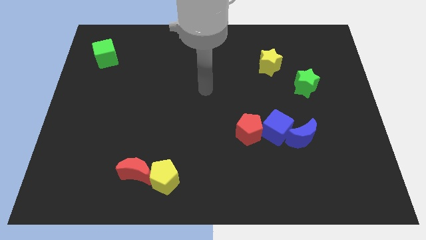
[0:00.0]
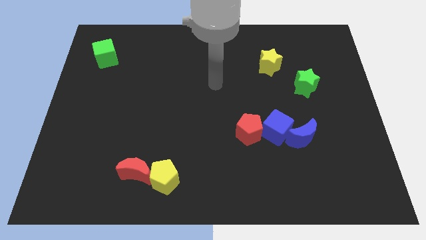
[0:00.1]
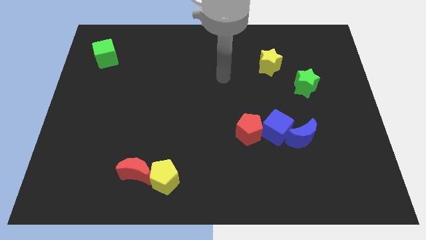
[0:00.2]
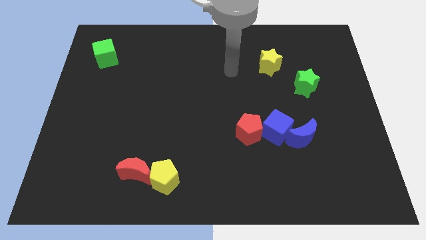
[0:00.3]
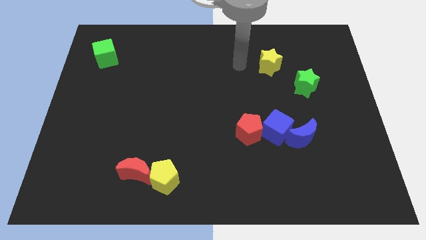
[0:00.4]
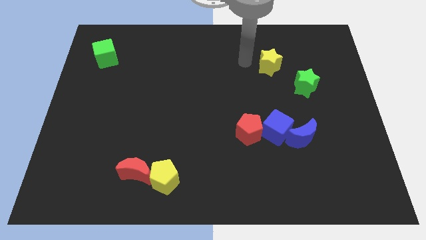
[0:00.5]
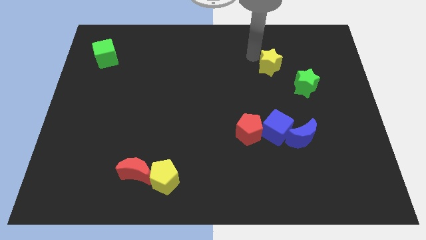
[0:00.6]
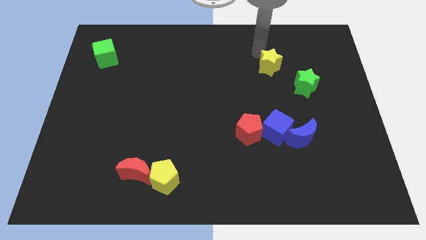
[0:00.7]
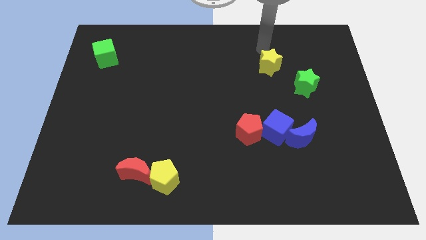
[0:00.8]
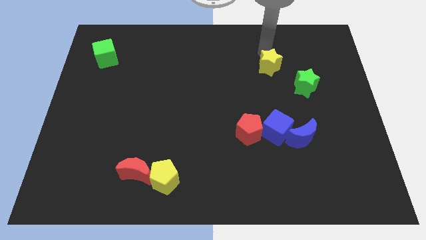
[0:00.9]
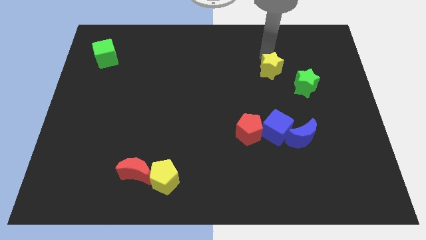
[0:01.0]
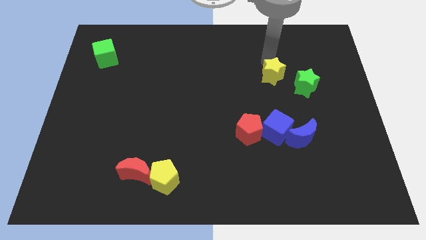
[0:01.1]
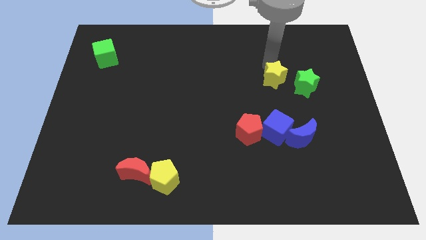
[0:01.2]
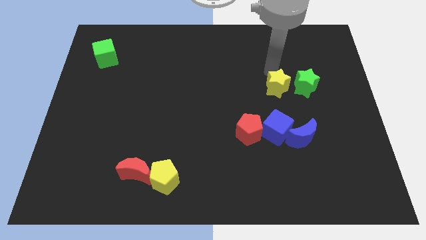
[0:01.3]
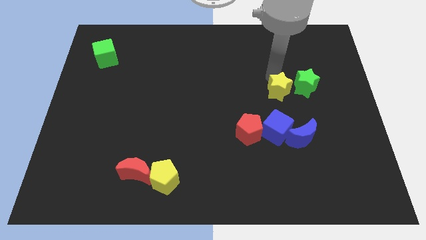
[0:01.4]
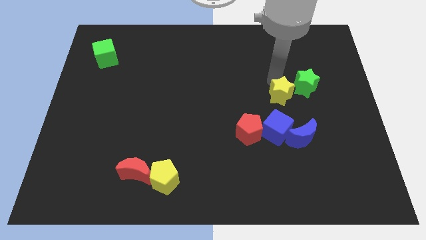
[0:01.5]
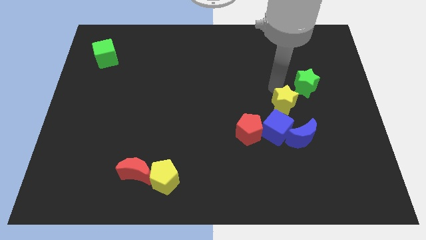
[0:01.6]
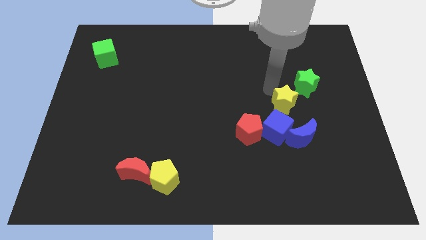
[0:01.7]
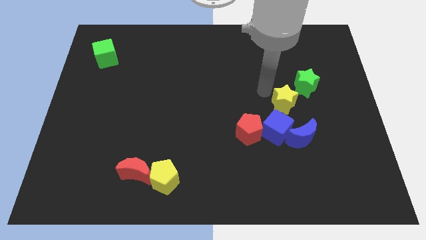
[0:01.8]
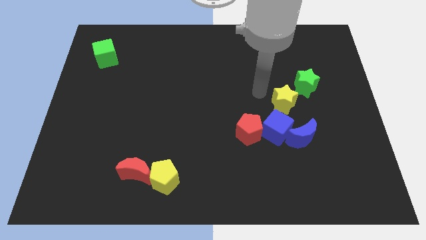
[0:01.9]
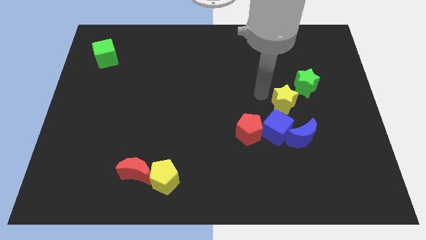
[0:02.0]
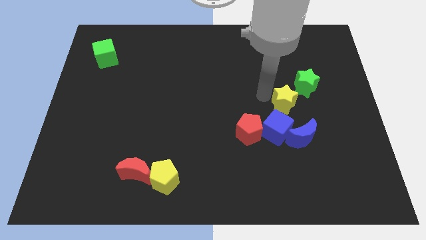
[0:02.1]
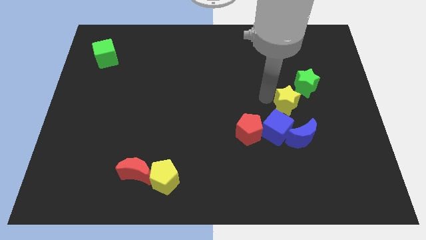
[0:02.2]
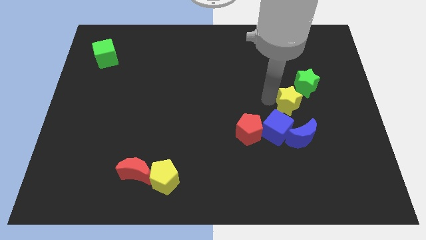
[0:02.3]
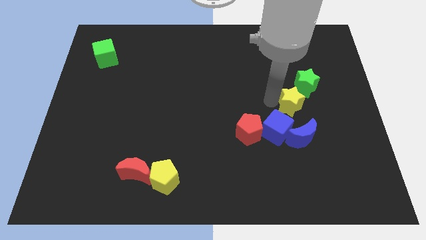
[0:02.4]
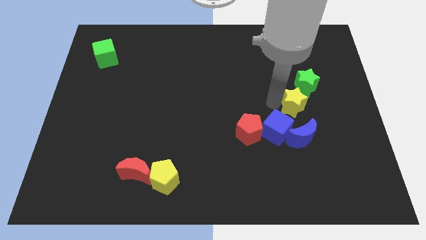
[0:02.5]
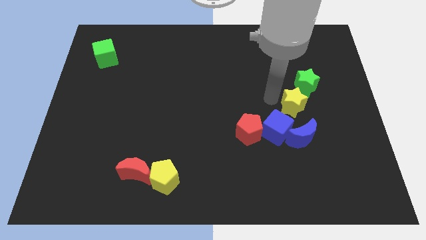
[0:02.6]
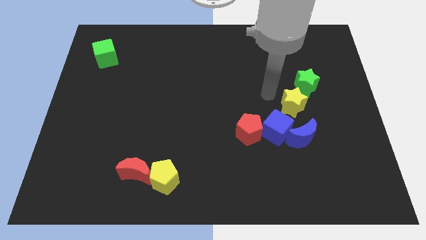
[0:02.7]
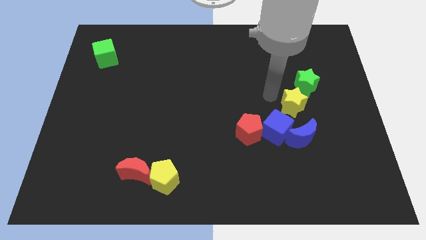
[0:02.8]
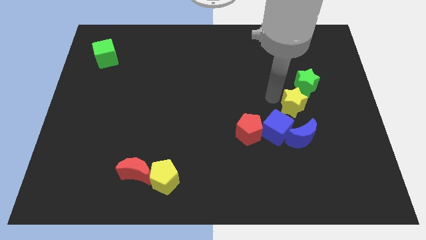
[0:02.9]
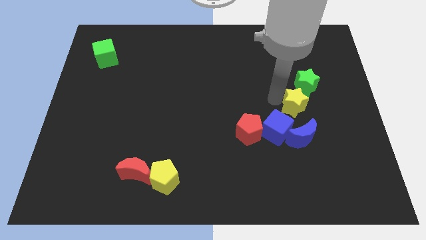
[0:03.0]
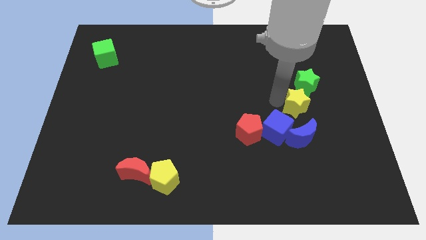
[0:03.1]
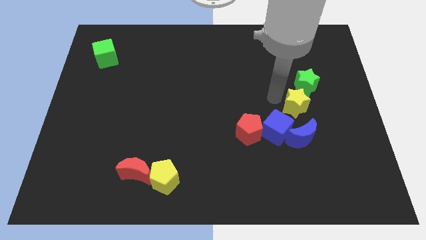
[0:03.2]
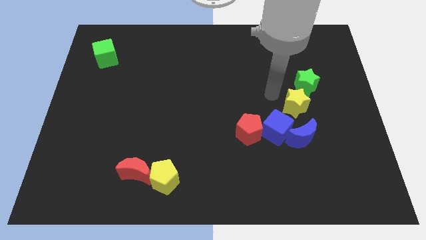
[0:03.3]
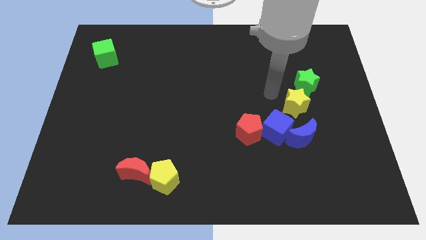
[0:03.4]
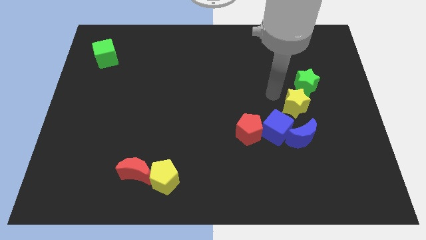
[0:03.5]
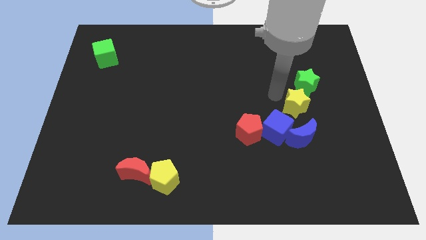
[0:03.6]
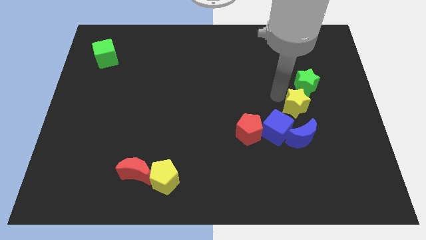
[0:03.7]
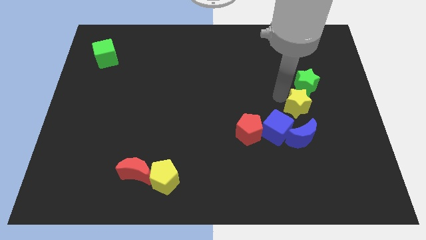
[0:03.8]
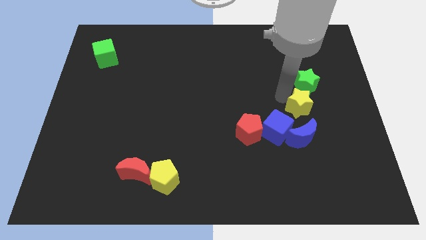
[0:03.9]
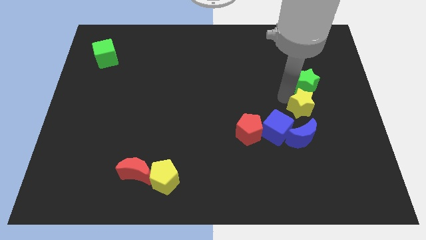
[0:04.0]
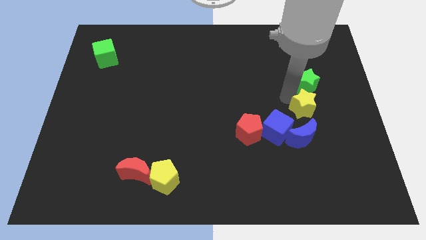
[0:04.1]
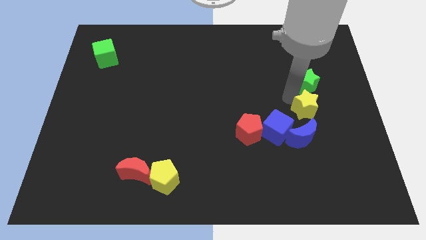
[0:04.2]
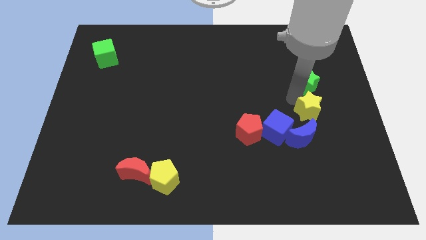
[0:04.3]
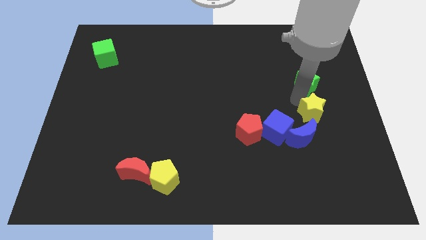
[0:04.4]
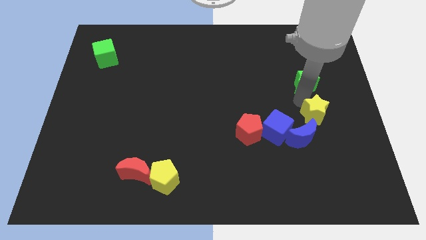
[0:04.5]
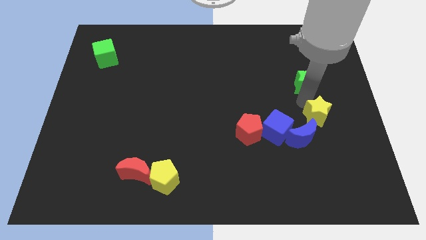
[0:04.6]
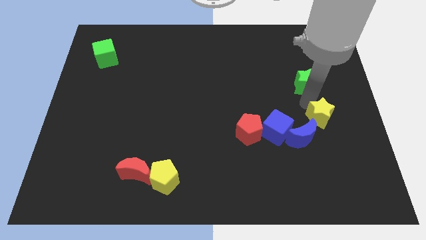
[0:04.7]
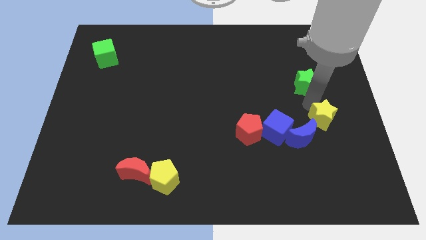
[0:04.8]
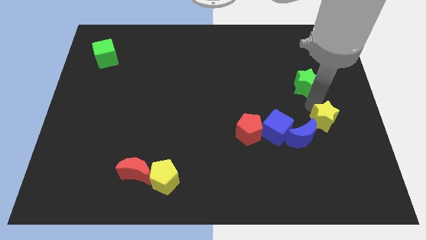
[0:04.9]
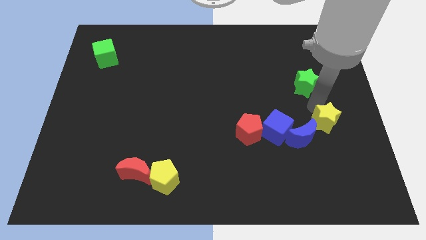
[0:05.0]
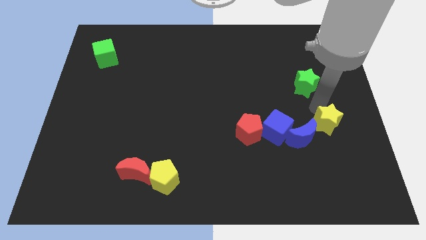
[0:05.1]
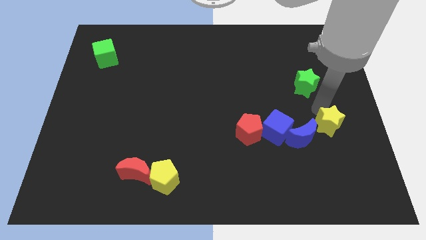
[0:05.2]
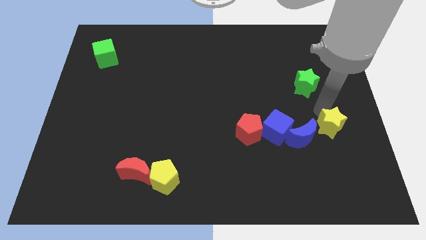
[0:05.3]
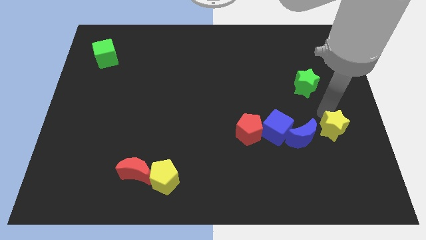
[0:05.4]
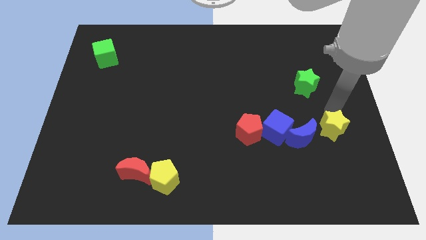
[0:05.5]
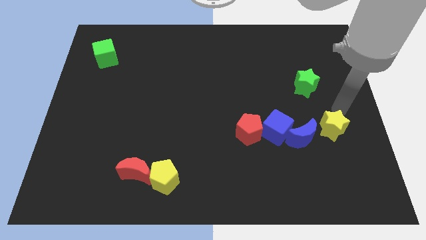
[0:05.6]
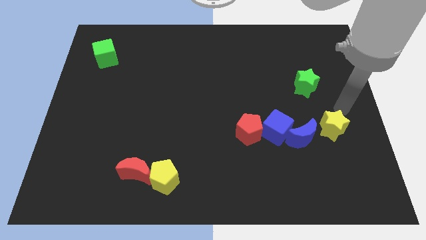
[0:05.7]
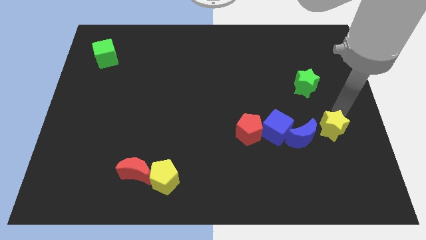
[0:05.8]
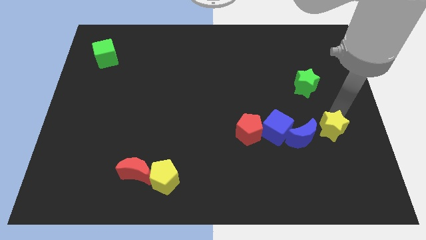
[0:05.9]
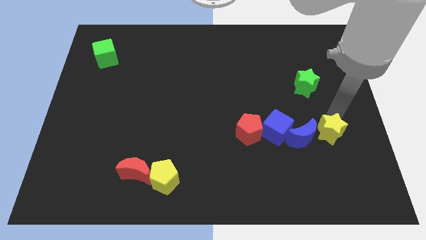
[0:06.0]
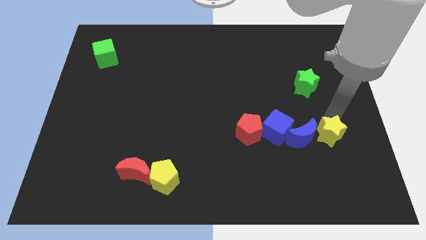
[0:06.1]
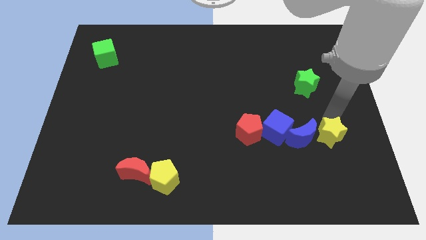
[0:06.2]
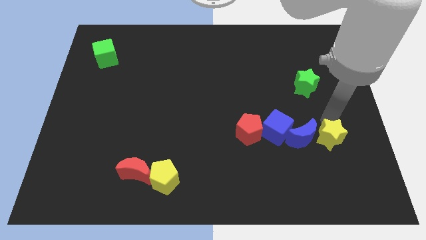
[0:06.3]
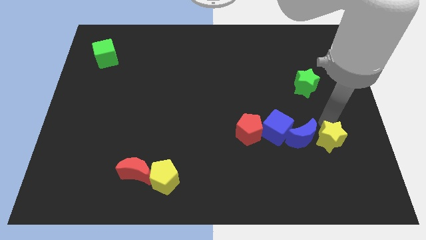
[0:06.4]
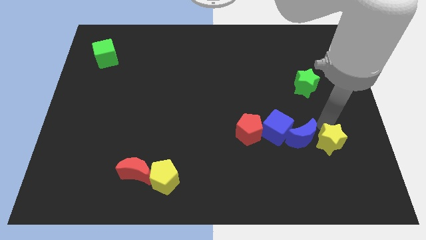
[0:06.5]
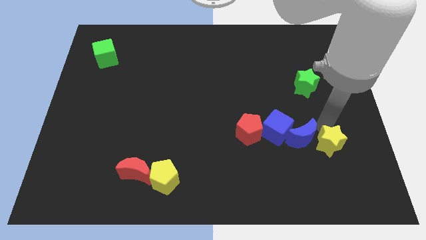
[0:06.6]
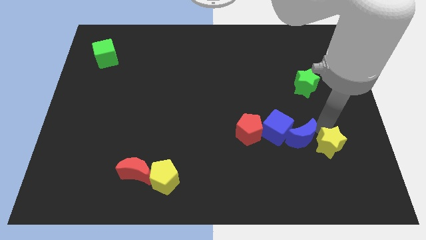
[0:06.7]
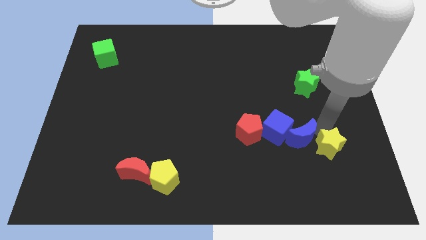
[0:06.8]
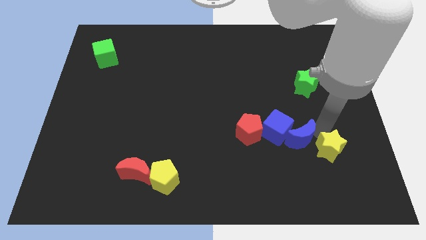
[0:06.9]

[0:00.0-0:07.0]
put the yellow star diagonally down and to the right of the blue cube

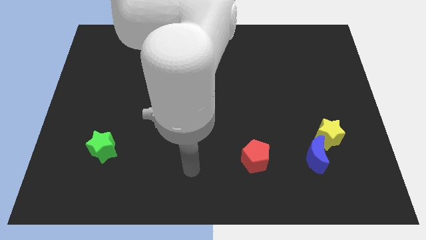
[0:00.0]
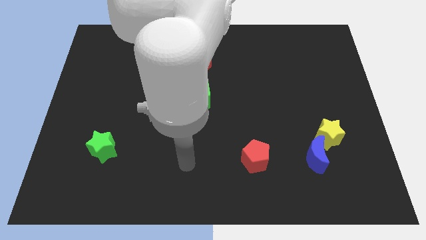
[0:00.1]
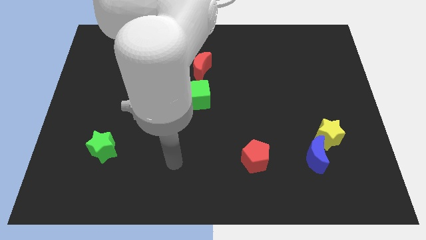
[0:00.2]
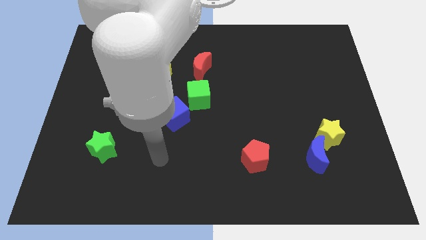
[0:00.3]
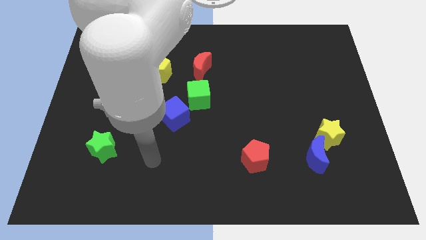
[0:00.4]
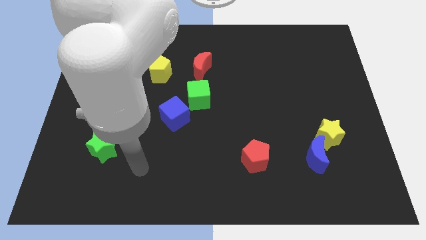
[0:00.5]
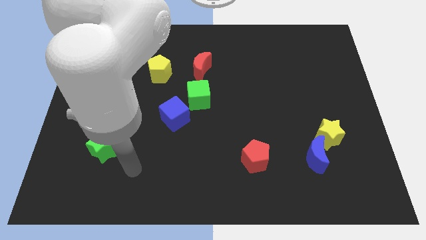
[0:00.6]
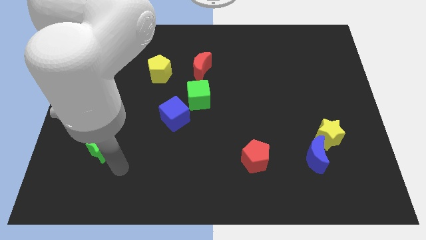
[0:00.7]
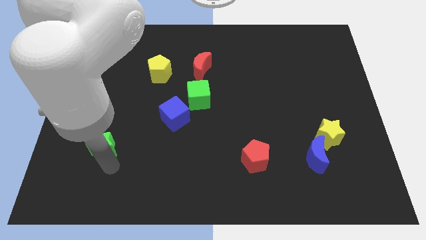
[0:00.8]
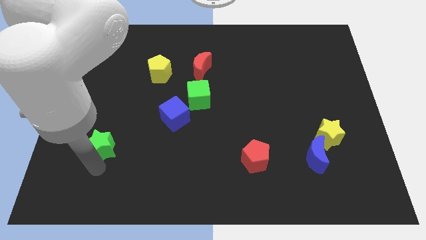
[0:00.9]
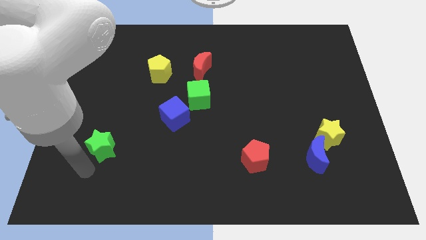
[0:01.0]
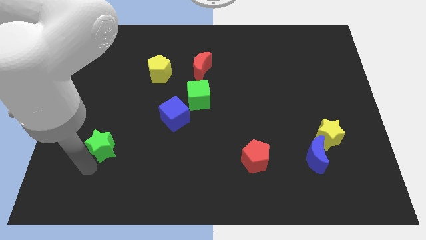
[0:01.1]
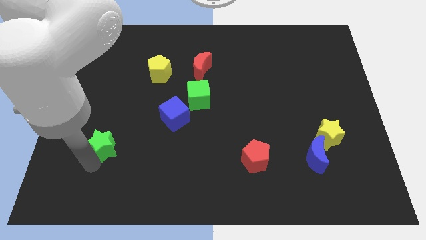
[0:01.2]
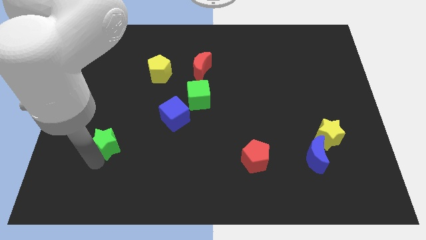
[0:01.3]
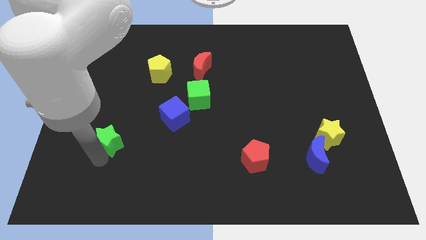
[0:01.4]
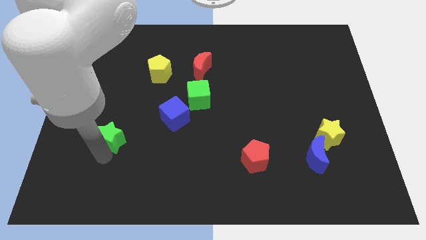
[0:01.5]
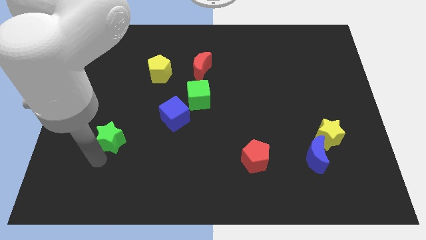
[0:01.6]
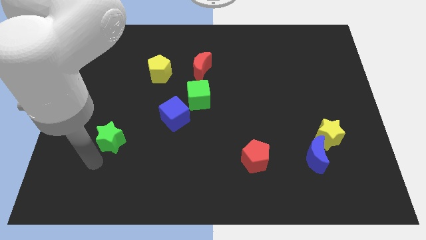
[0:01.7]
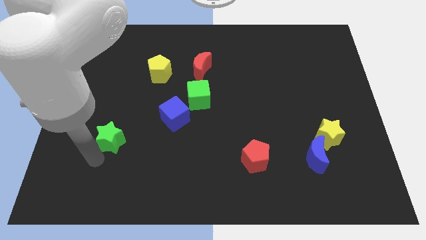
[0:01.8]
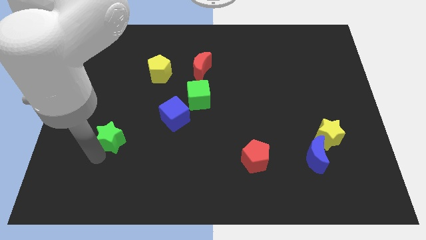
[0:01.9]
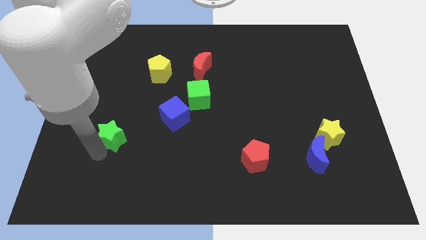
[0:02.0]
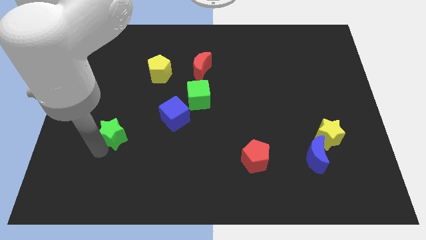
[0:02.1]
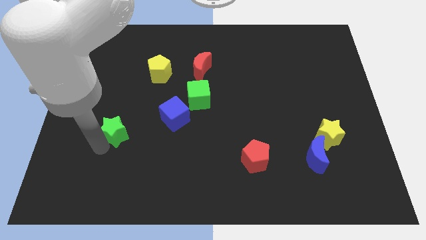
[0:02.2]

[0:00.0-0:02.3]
put the green star to the left side of the blue cube
